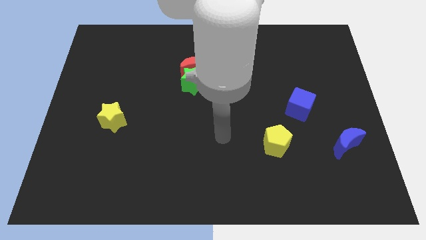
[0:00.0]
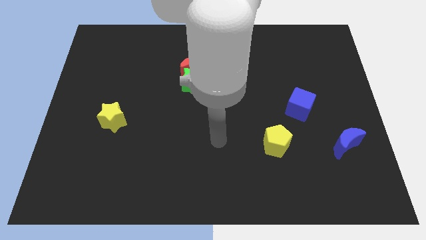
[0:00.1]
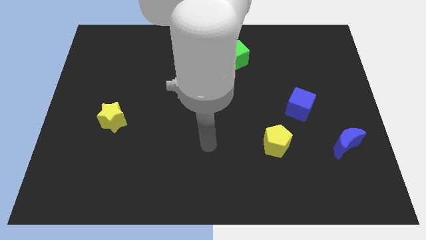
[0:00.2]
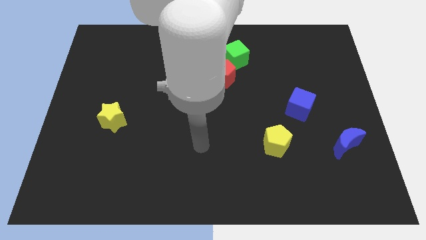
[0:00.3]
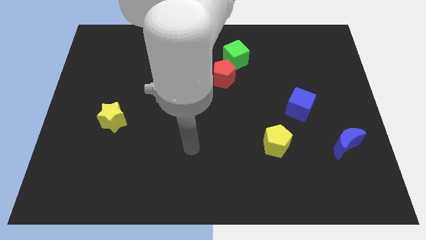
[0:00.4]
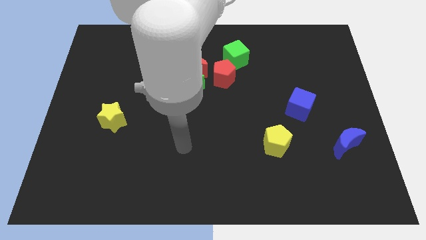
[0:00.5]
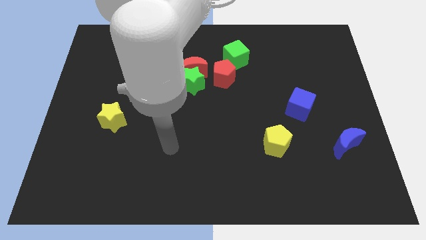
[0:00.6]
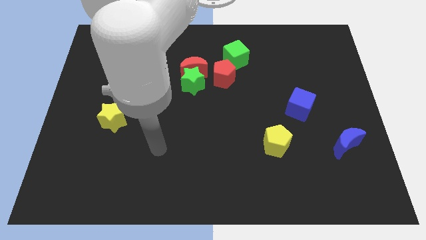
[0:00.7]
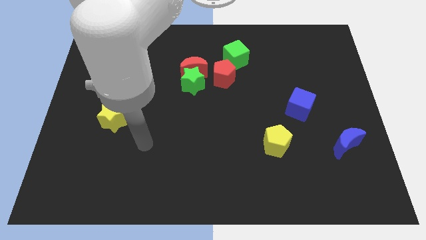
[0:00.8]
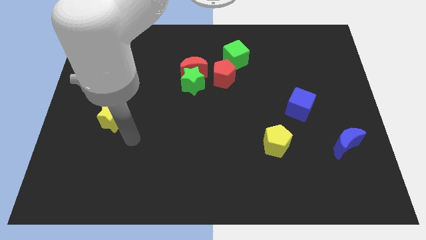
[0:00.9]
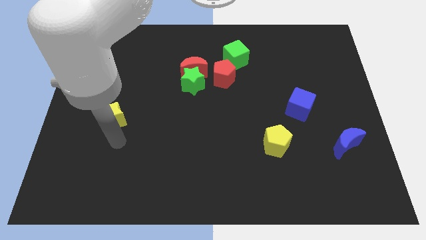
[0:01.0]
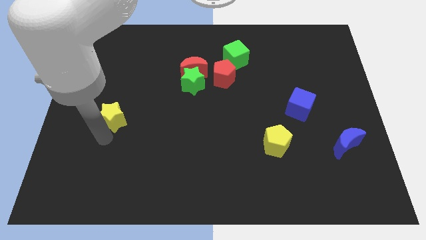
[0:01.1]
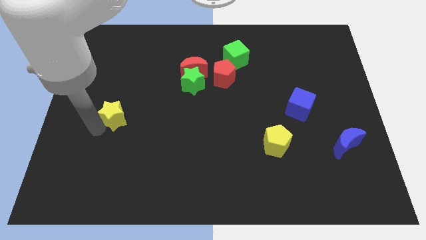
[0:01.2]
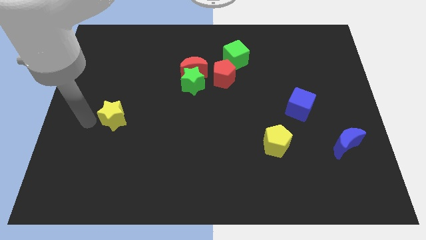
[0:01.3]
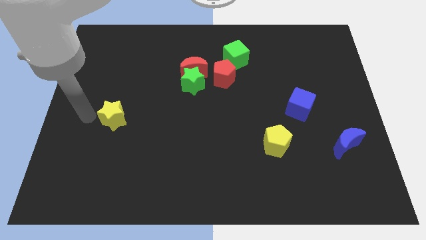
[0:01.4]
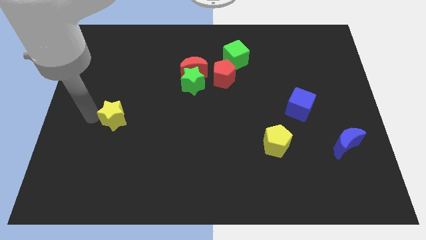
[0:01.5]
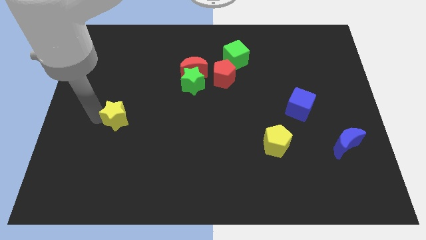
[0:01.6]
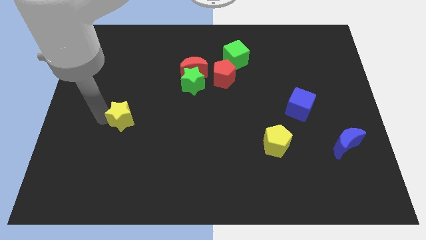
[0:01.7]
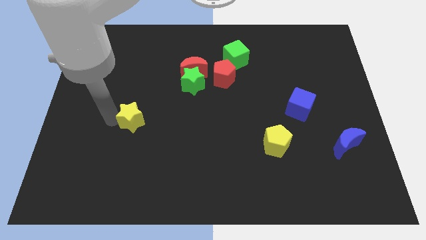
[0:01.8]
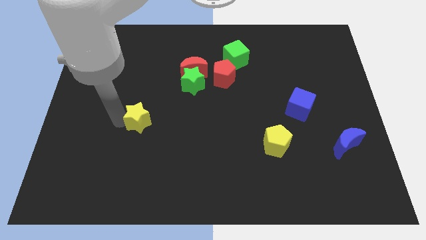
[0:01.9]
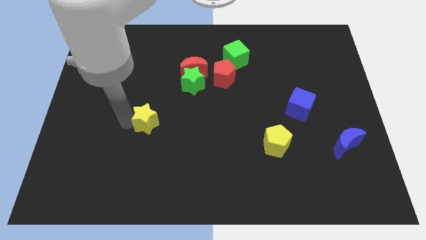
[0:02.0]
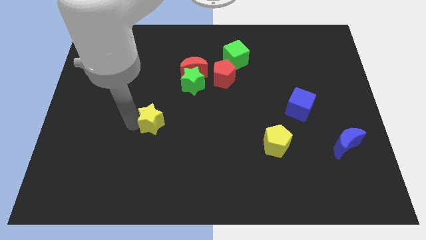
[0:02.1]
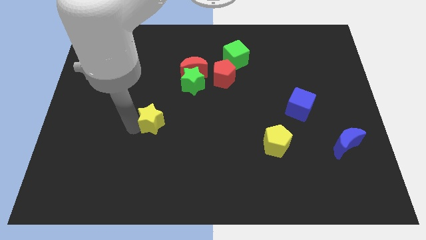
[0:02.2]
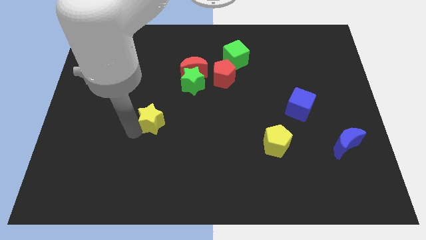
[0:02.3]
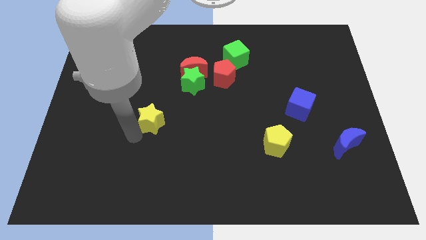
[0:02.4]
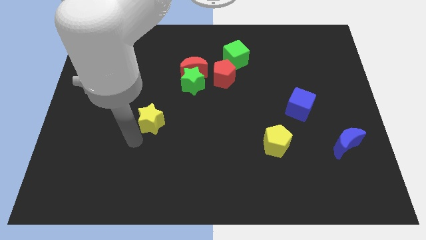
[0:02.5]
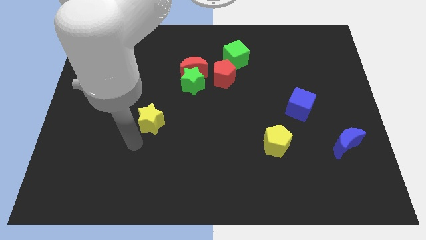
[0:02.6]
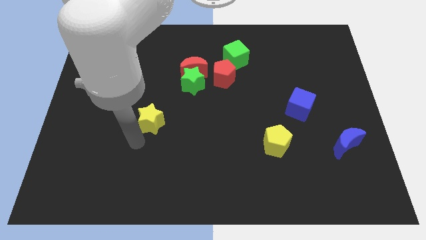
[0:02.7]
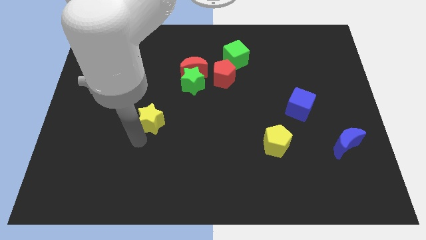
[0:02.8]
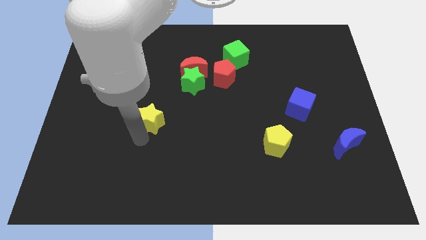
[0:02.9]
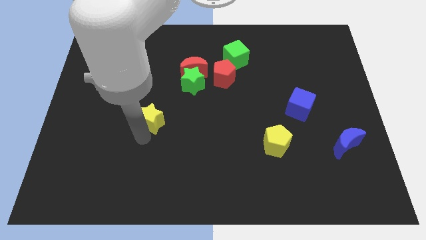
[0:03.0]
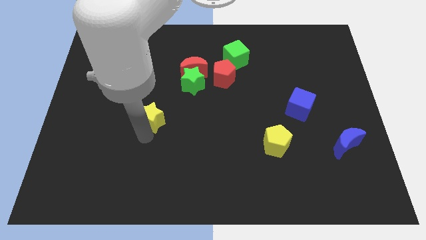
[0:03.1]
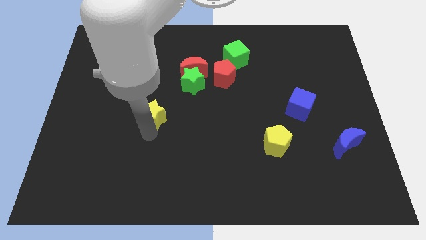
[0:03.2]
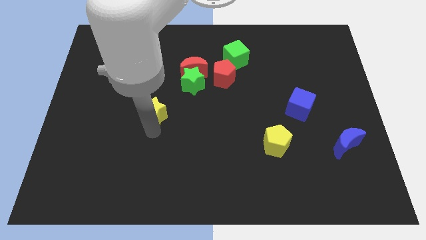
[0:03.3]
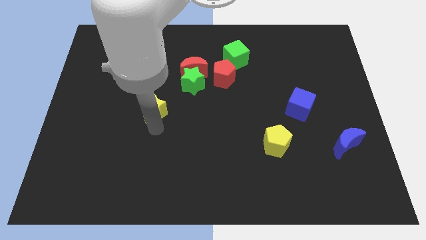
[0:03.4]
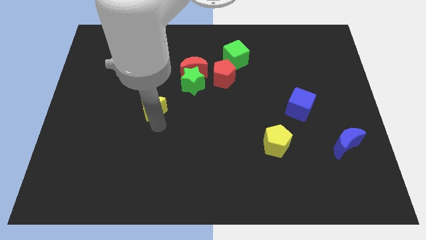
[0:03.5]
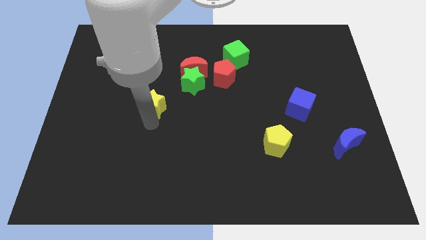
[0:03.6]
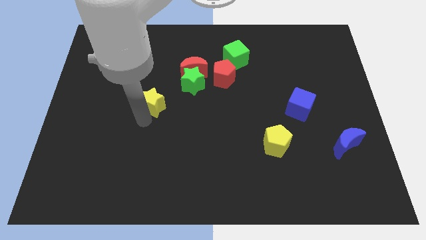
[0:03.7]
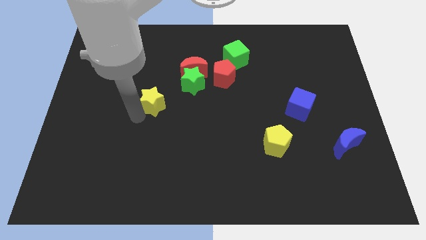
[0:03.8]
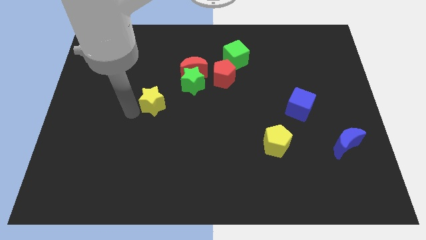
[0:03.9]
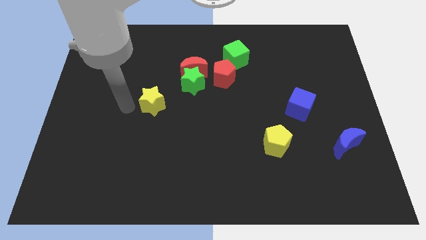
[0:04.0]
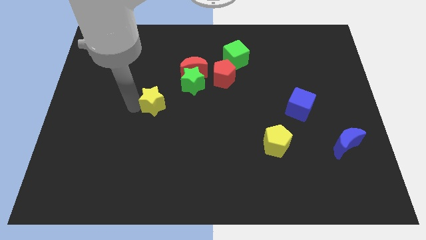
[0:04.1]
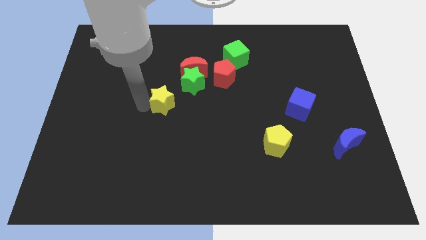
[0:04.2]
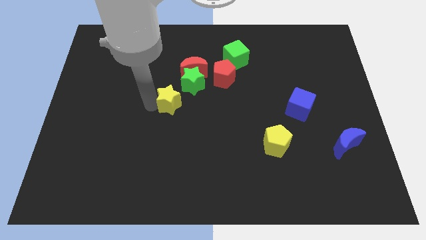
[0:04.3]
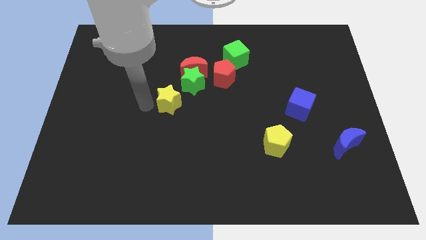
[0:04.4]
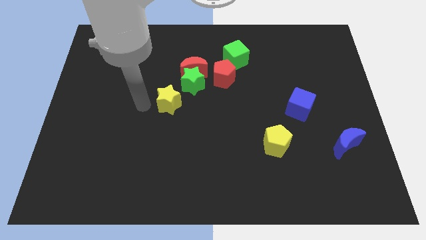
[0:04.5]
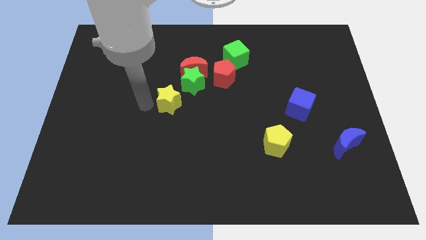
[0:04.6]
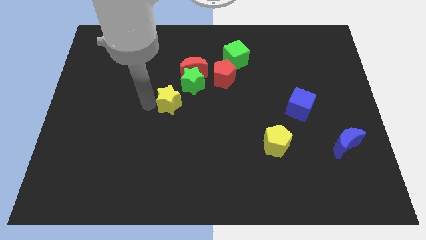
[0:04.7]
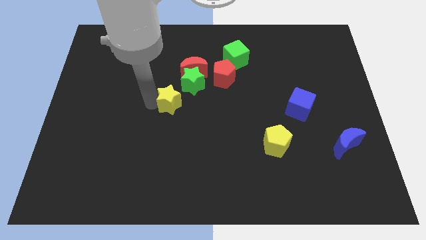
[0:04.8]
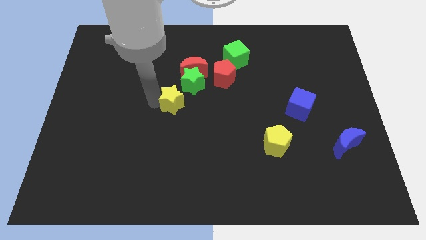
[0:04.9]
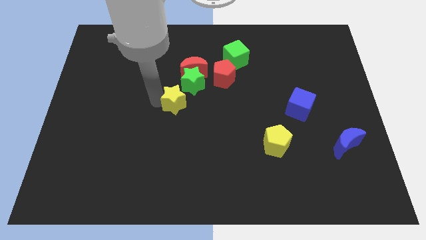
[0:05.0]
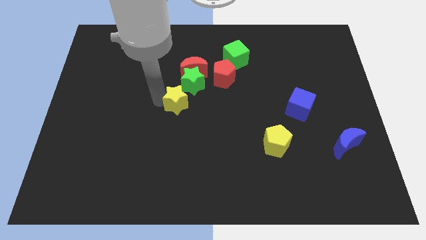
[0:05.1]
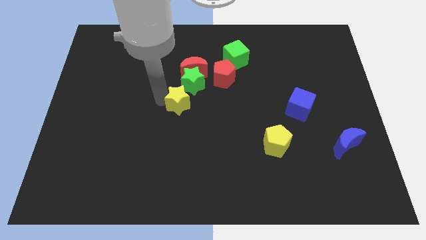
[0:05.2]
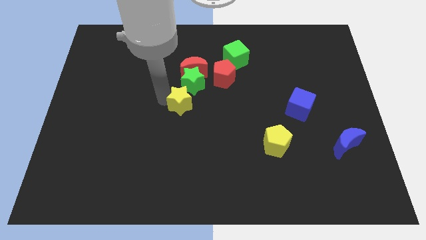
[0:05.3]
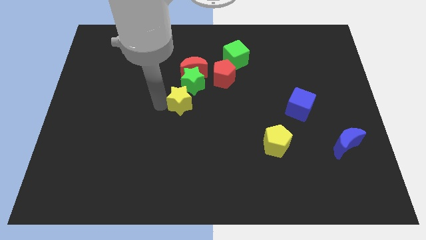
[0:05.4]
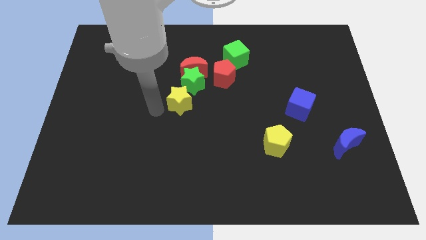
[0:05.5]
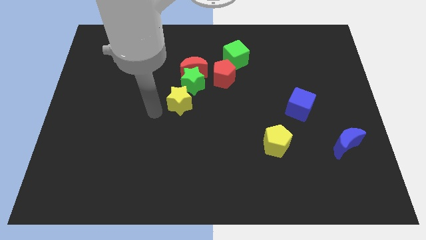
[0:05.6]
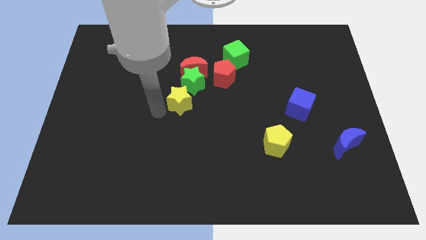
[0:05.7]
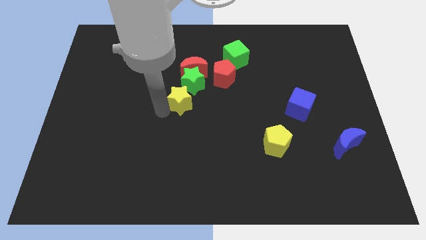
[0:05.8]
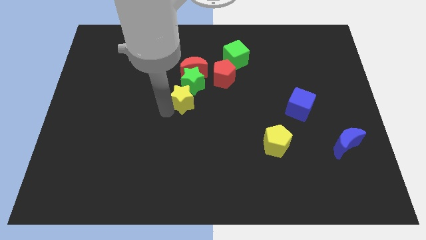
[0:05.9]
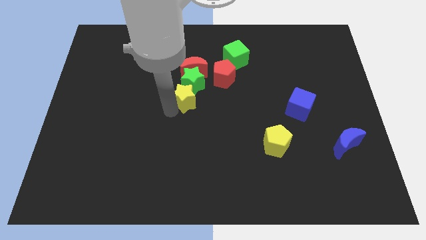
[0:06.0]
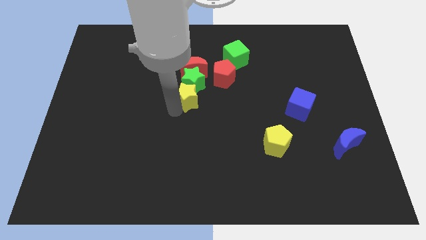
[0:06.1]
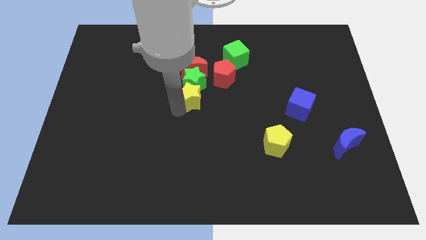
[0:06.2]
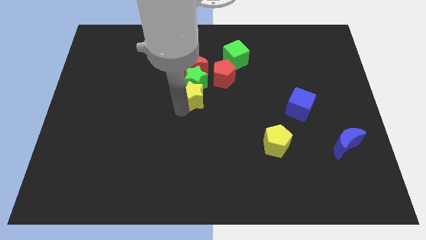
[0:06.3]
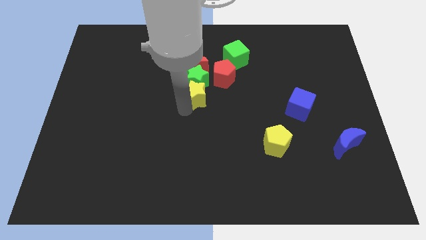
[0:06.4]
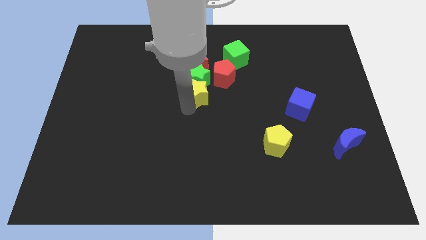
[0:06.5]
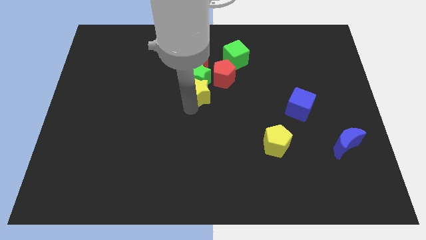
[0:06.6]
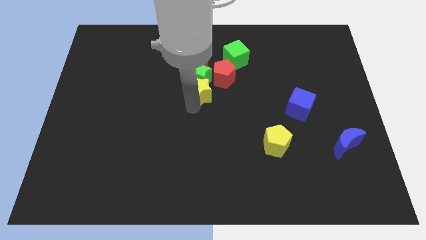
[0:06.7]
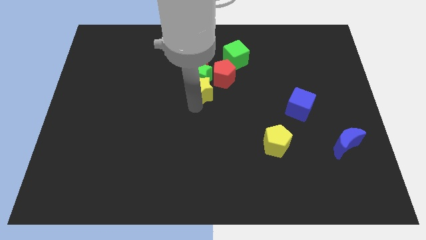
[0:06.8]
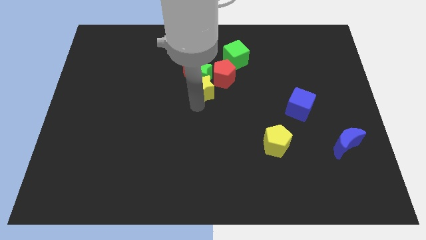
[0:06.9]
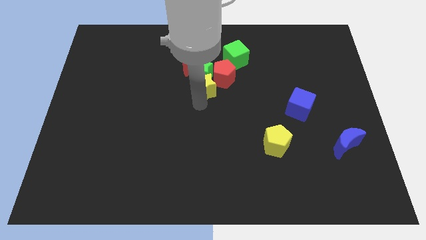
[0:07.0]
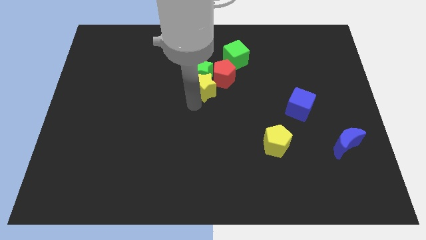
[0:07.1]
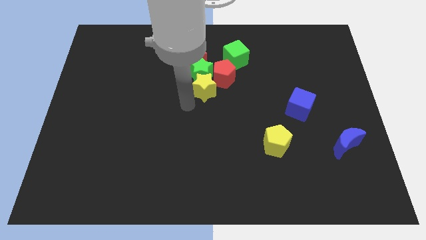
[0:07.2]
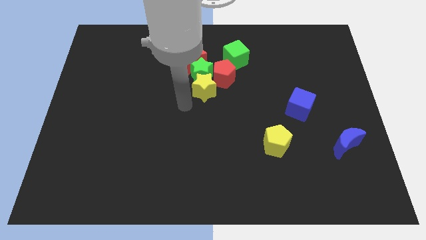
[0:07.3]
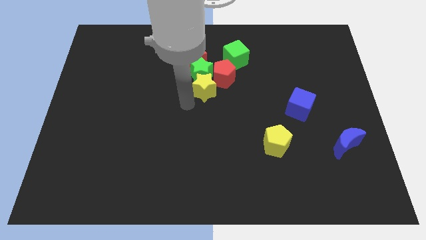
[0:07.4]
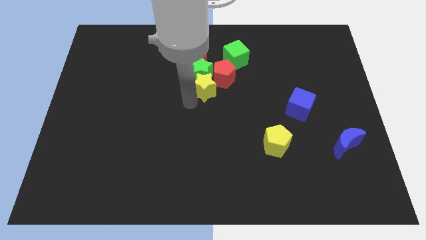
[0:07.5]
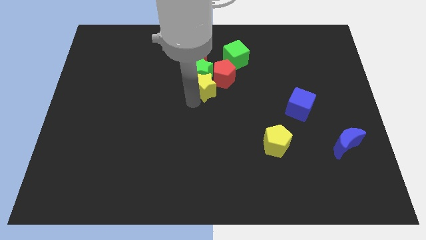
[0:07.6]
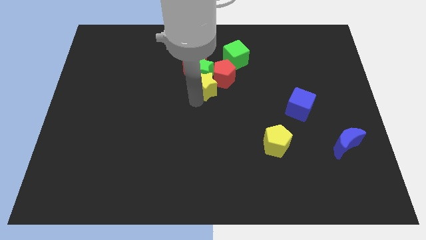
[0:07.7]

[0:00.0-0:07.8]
push the yellow star towards the red pentagon
